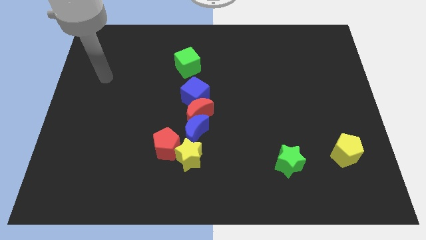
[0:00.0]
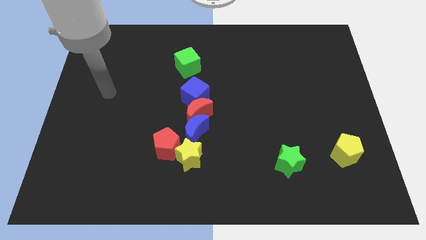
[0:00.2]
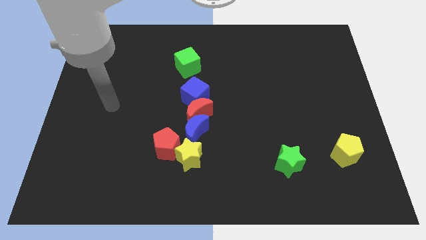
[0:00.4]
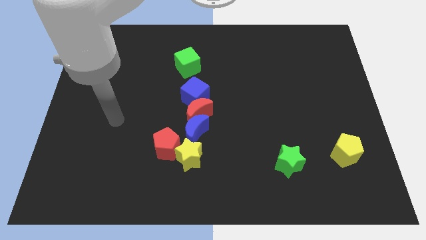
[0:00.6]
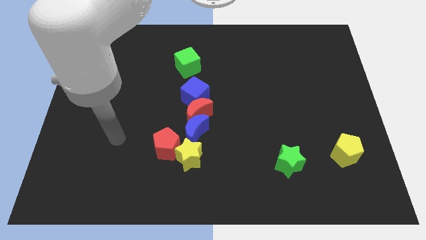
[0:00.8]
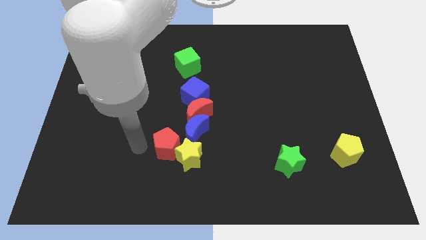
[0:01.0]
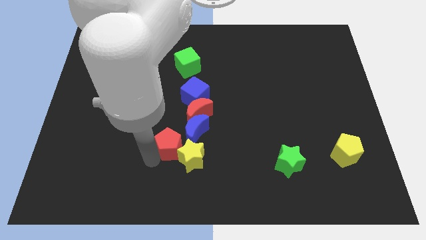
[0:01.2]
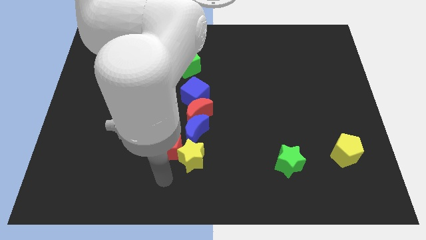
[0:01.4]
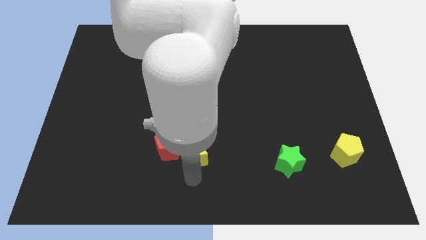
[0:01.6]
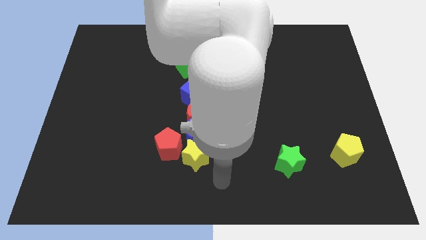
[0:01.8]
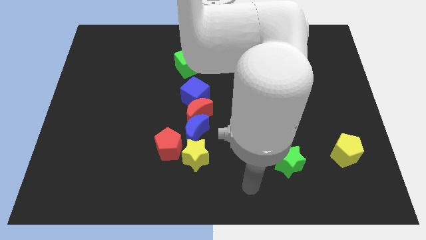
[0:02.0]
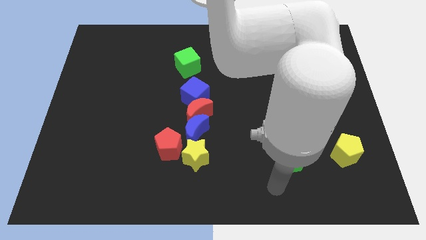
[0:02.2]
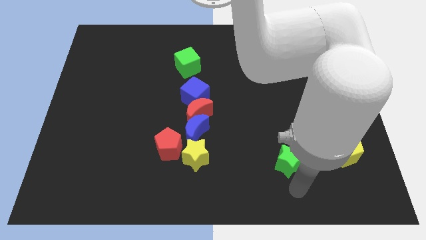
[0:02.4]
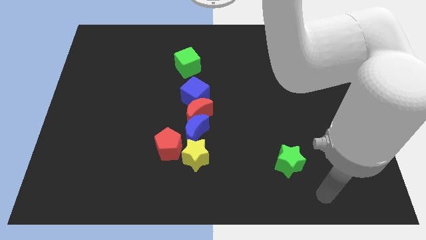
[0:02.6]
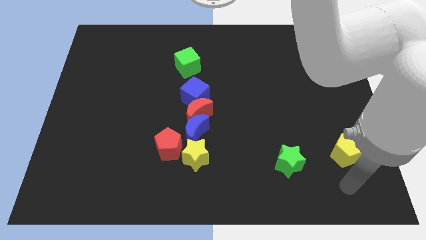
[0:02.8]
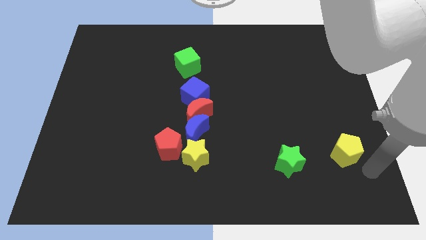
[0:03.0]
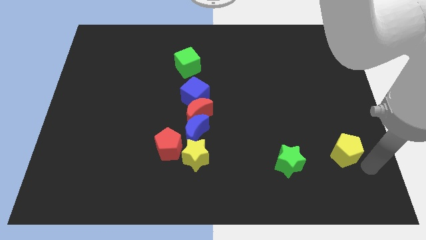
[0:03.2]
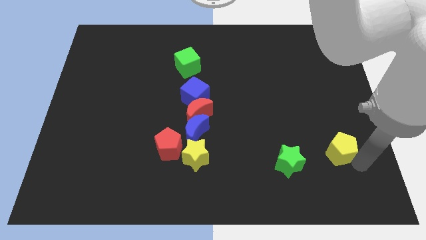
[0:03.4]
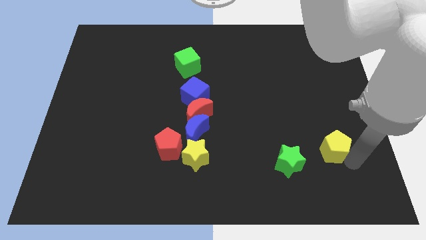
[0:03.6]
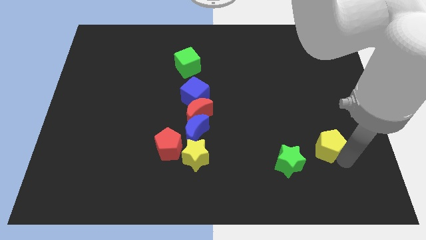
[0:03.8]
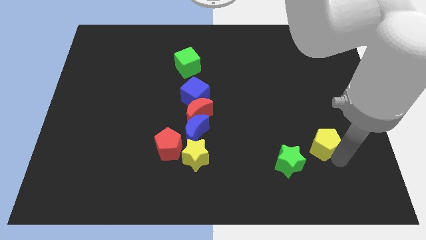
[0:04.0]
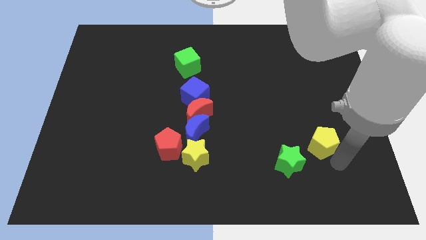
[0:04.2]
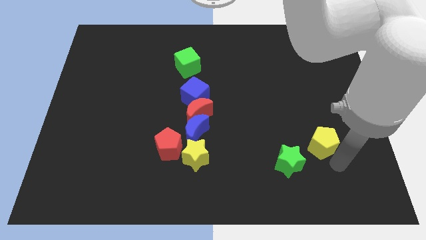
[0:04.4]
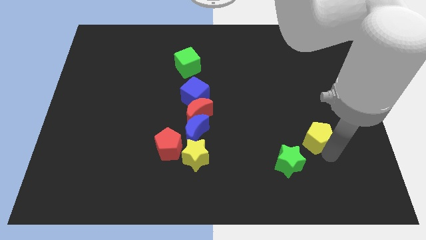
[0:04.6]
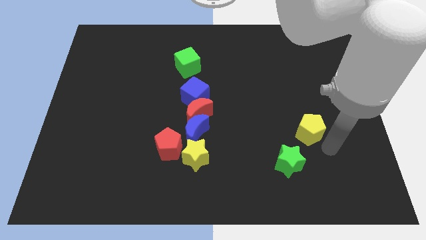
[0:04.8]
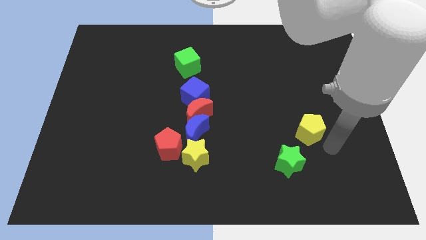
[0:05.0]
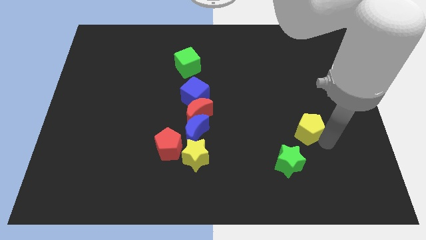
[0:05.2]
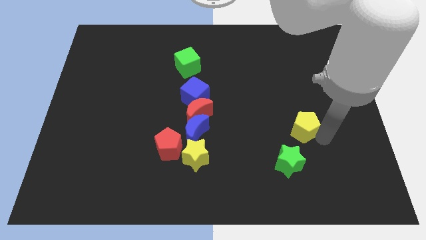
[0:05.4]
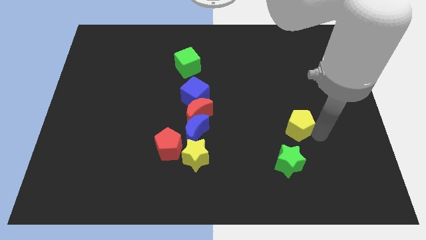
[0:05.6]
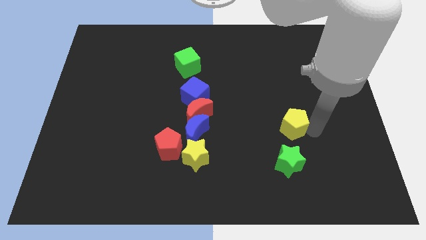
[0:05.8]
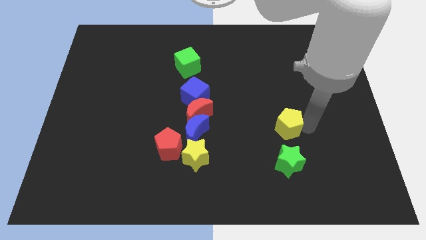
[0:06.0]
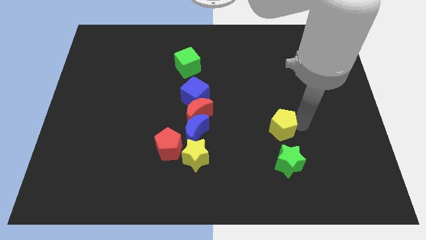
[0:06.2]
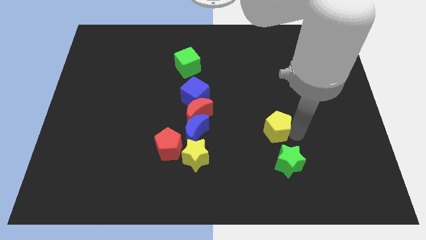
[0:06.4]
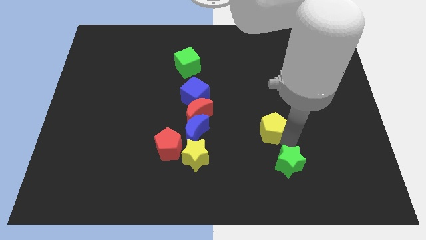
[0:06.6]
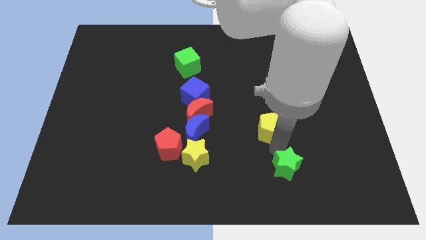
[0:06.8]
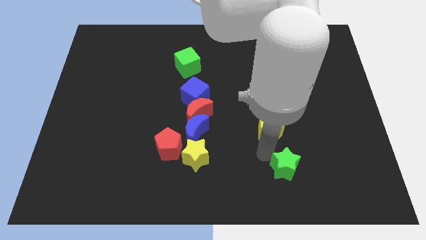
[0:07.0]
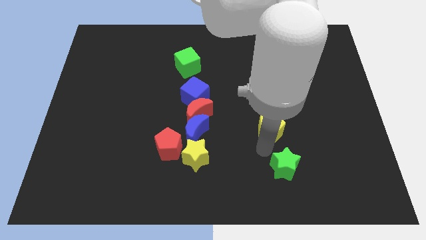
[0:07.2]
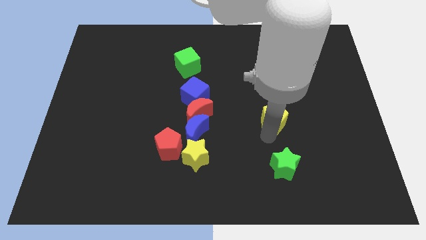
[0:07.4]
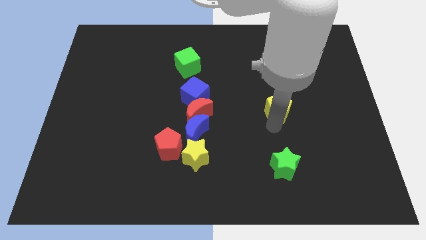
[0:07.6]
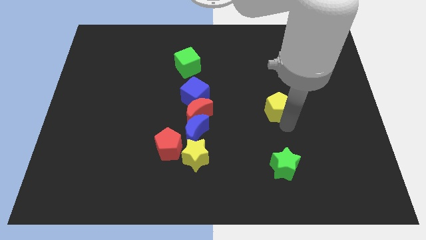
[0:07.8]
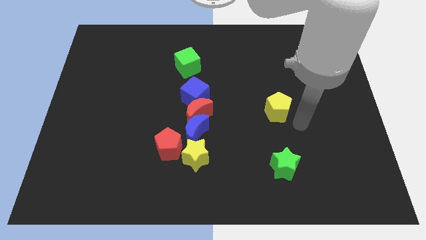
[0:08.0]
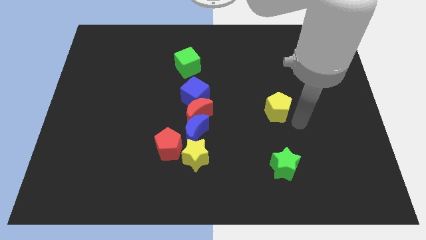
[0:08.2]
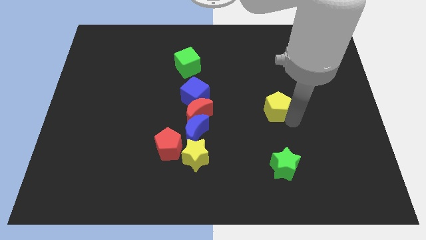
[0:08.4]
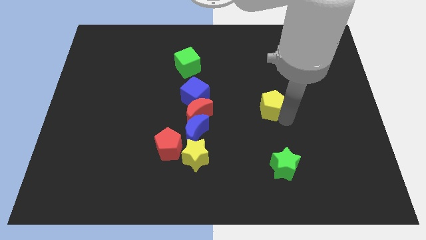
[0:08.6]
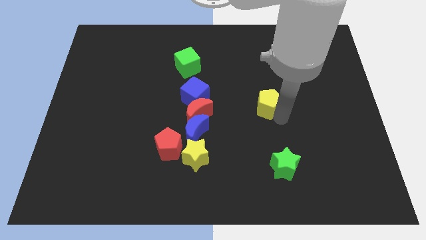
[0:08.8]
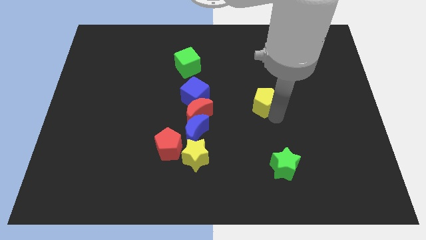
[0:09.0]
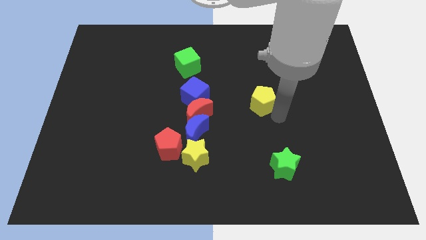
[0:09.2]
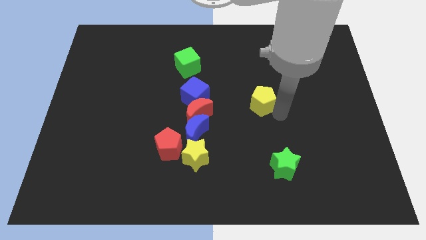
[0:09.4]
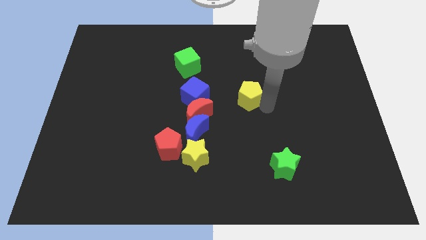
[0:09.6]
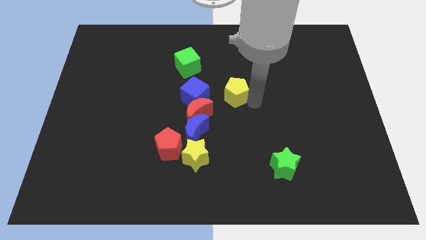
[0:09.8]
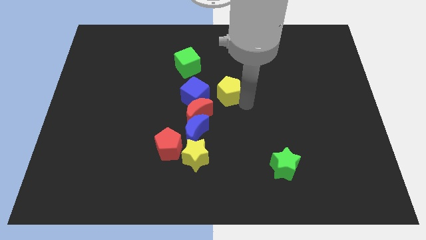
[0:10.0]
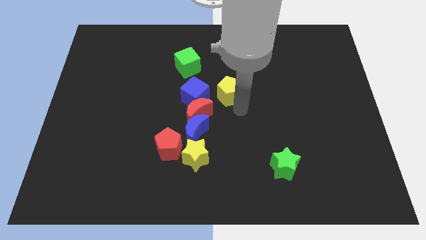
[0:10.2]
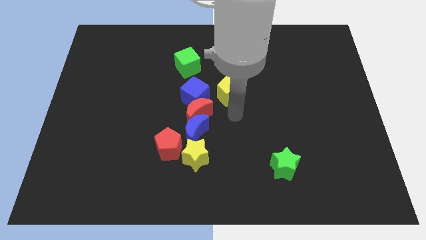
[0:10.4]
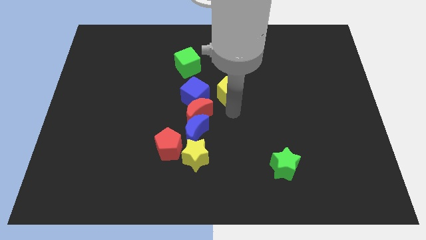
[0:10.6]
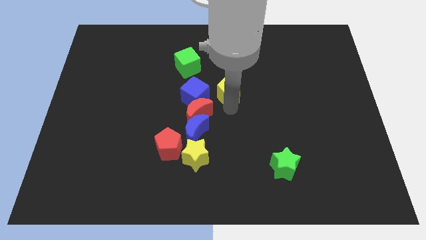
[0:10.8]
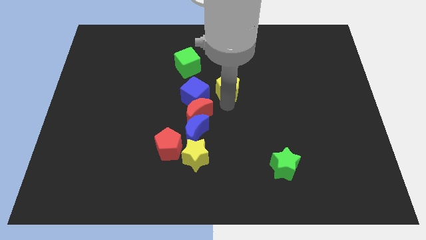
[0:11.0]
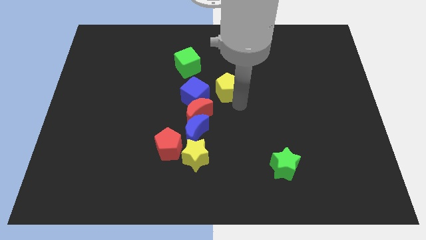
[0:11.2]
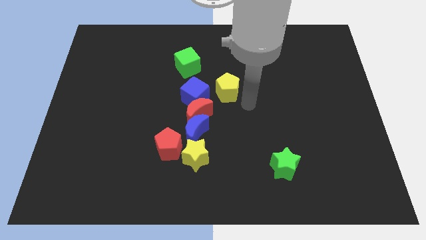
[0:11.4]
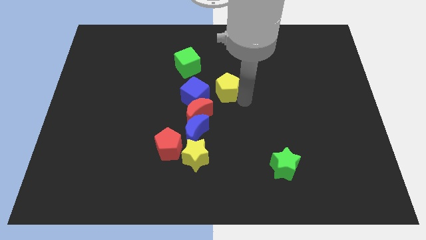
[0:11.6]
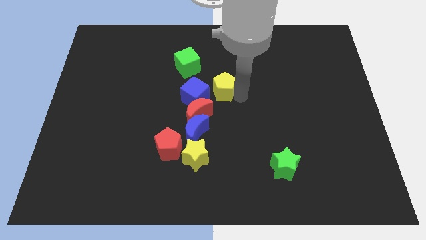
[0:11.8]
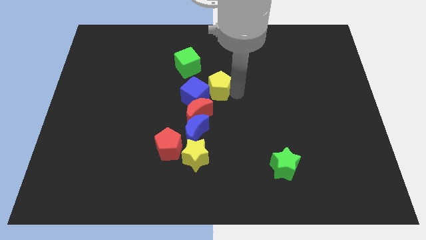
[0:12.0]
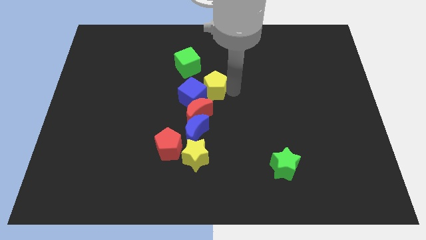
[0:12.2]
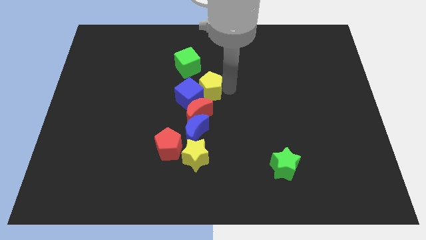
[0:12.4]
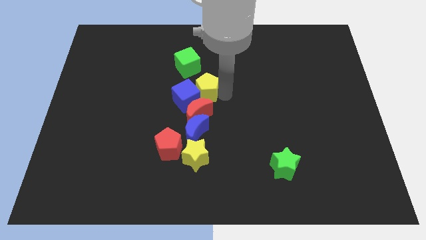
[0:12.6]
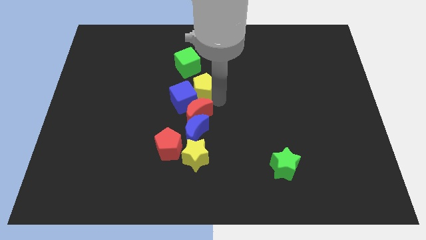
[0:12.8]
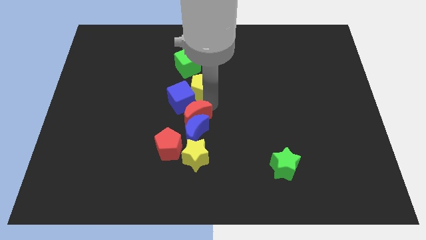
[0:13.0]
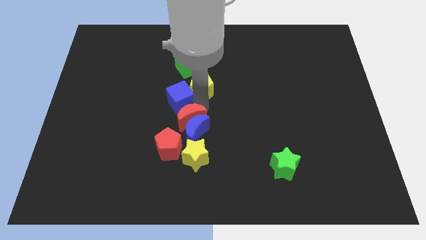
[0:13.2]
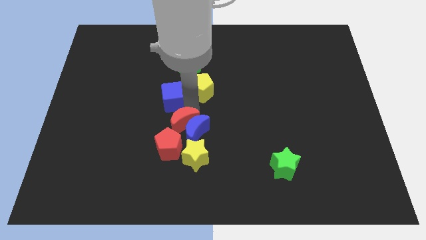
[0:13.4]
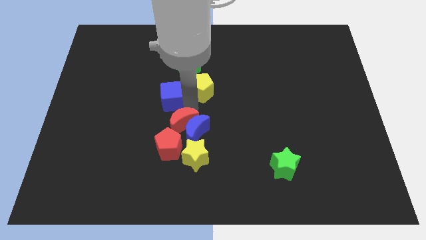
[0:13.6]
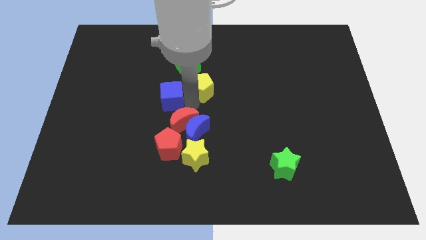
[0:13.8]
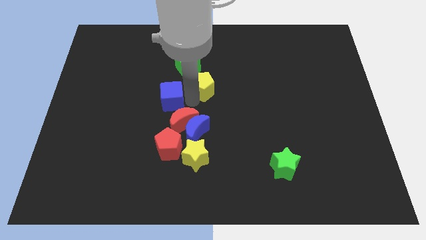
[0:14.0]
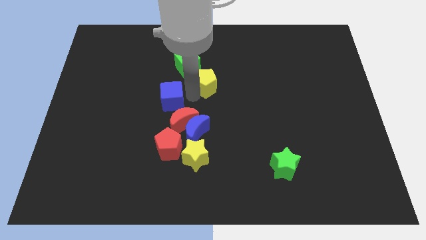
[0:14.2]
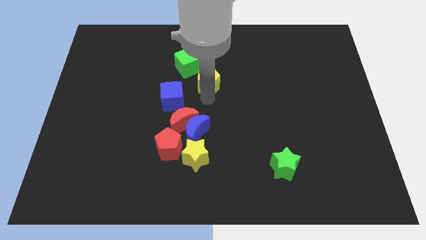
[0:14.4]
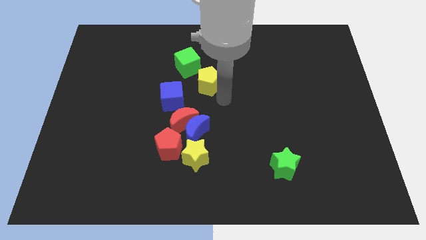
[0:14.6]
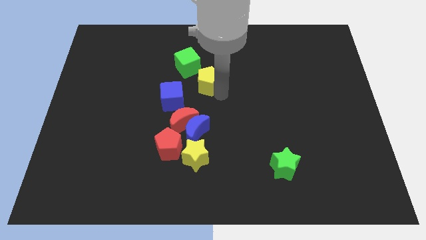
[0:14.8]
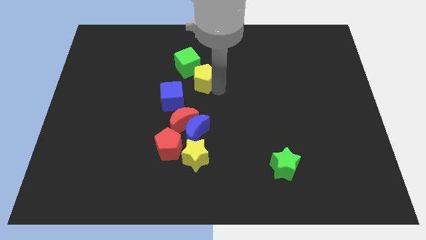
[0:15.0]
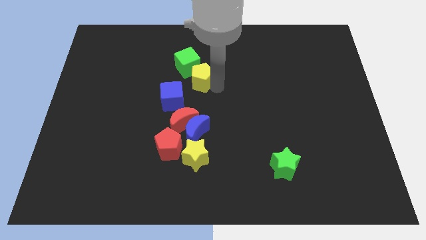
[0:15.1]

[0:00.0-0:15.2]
push the yellow pentagon next to the green cube
